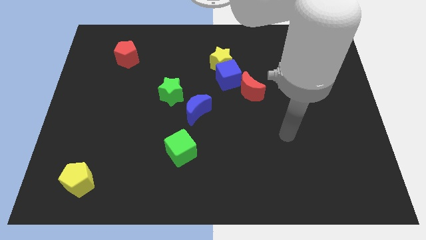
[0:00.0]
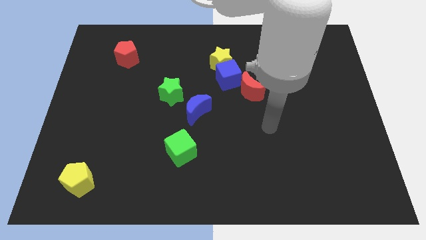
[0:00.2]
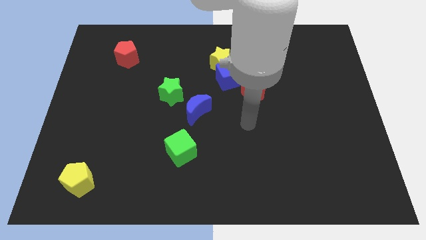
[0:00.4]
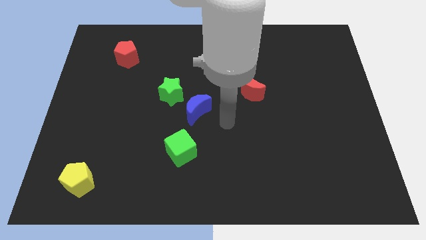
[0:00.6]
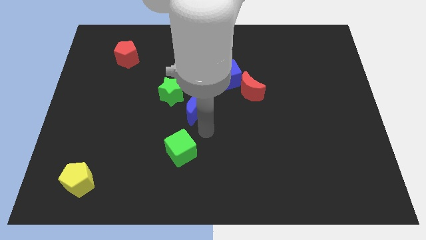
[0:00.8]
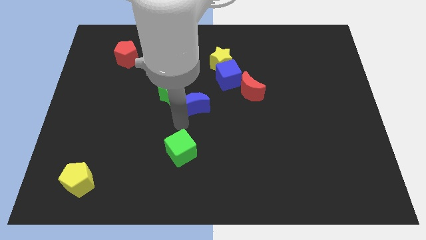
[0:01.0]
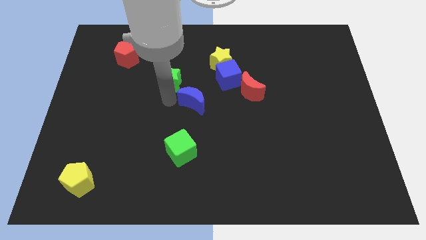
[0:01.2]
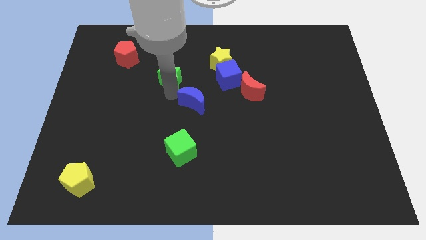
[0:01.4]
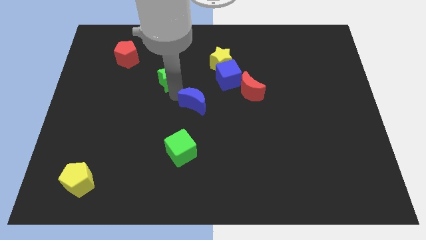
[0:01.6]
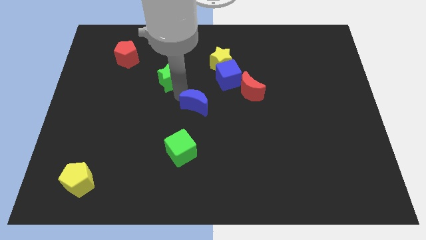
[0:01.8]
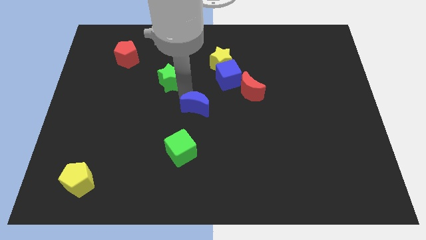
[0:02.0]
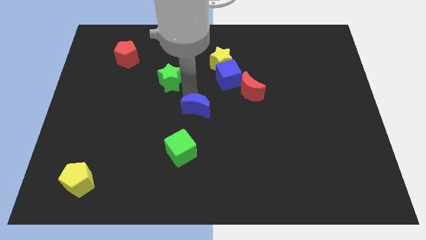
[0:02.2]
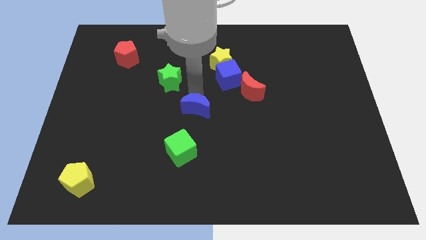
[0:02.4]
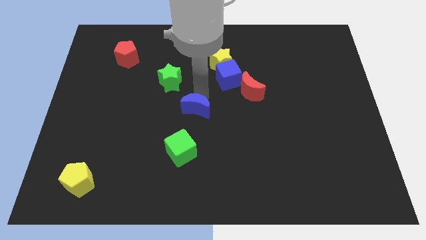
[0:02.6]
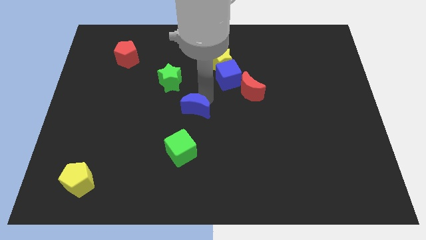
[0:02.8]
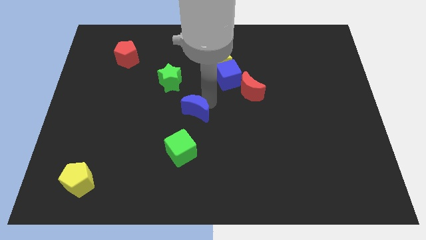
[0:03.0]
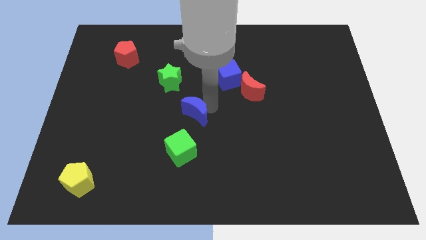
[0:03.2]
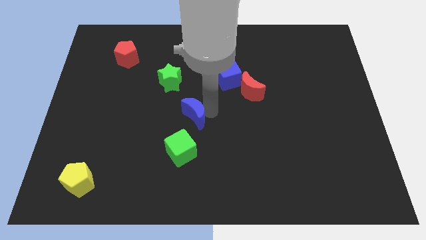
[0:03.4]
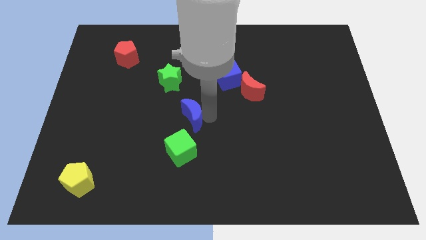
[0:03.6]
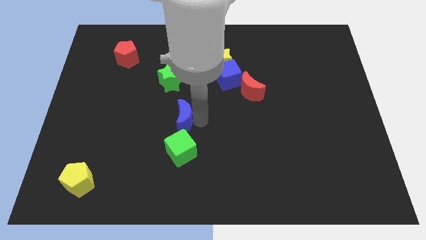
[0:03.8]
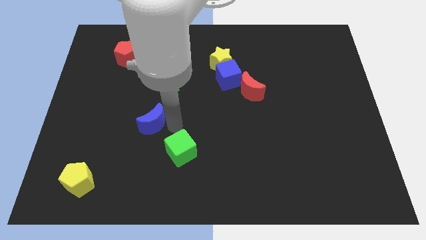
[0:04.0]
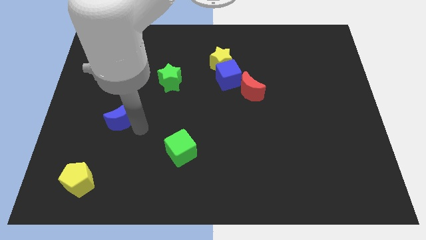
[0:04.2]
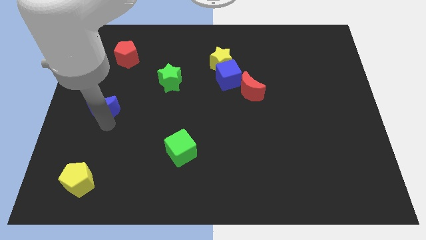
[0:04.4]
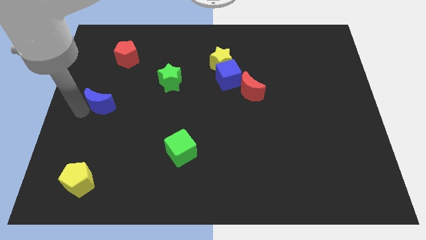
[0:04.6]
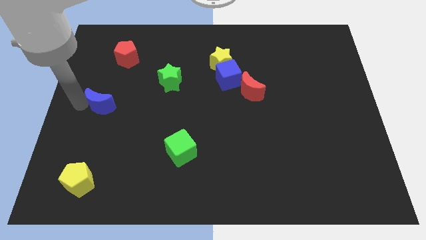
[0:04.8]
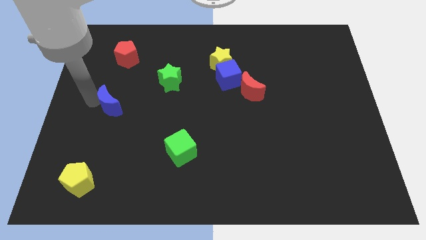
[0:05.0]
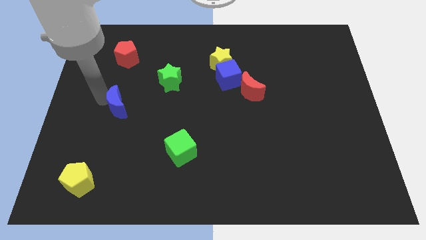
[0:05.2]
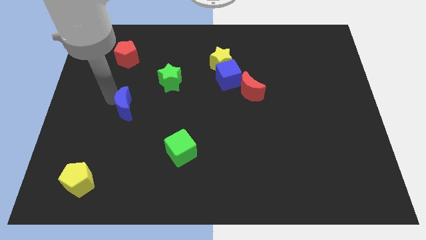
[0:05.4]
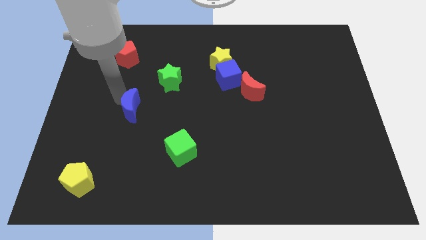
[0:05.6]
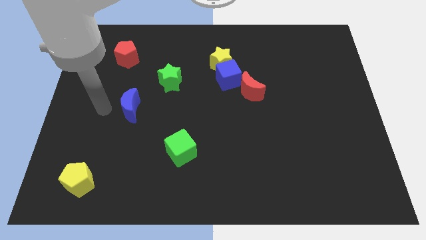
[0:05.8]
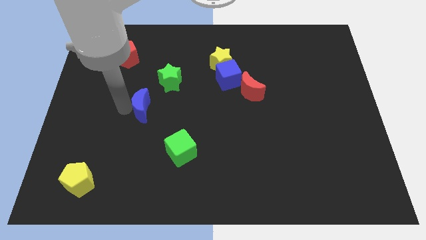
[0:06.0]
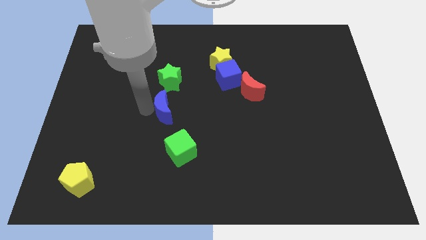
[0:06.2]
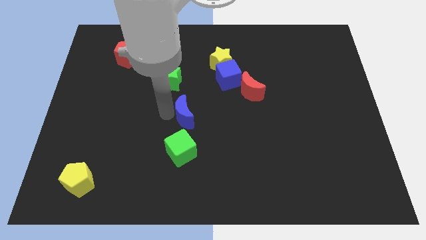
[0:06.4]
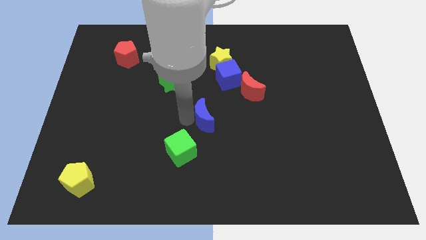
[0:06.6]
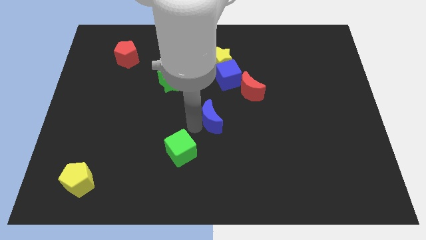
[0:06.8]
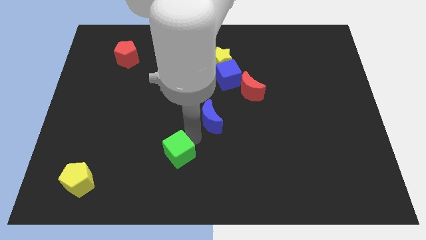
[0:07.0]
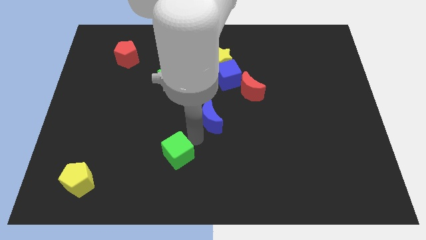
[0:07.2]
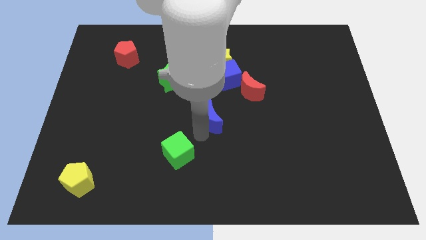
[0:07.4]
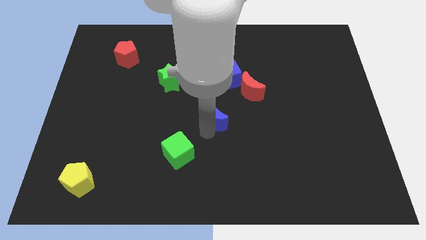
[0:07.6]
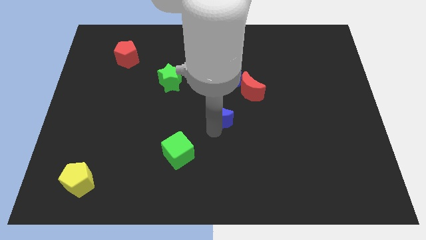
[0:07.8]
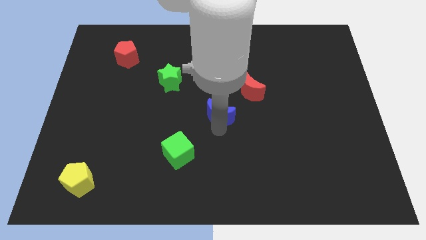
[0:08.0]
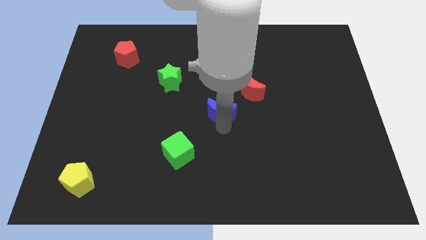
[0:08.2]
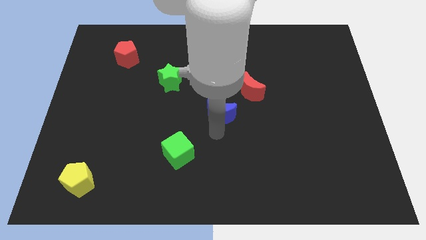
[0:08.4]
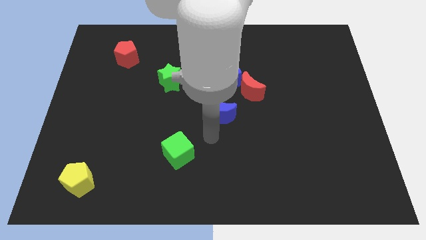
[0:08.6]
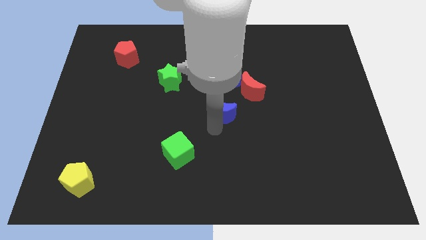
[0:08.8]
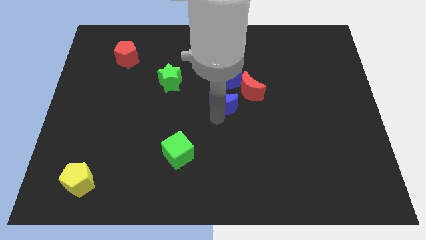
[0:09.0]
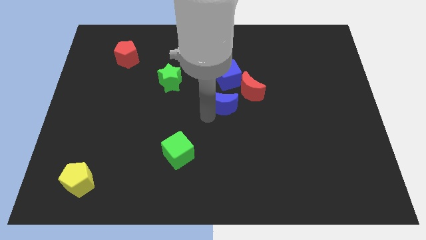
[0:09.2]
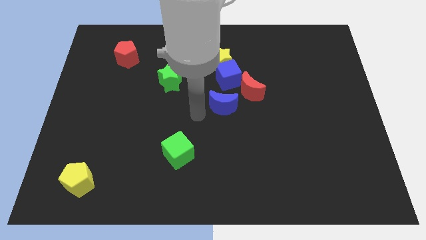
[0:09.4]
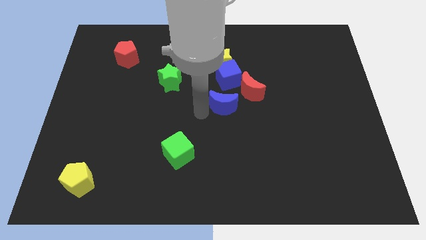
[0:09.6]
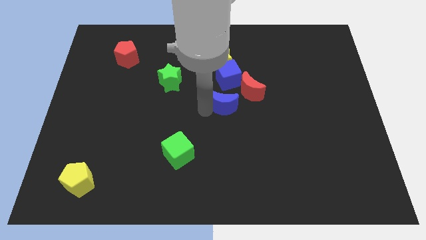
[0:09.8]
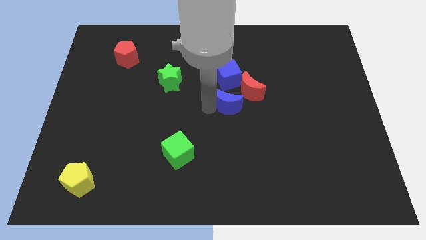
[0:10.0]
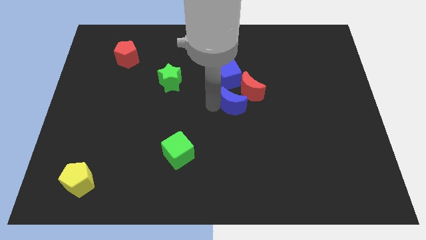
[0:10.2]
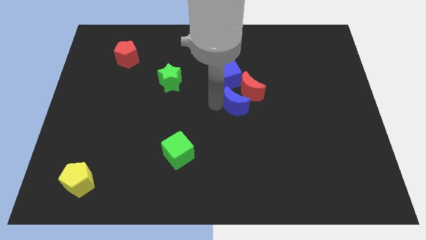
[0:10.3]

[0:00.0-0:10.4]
push the blue moon next to the red moon

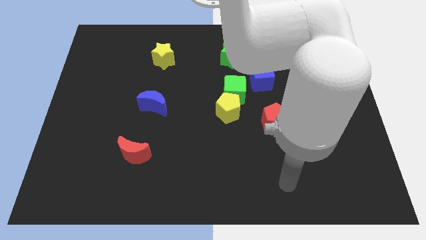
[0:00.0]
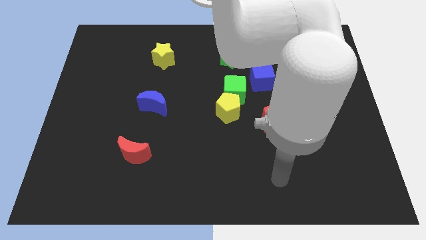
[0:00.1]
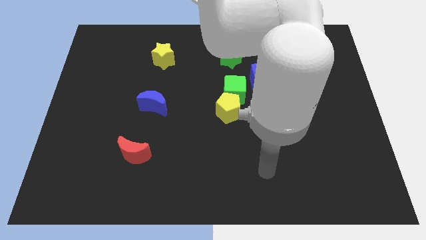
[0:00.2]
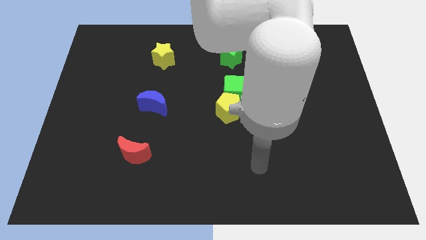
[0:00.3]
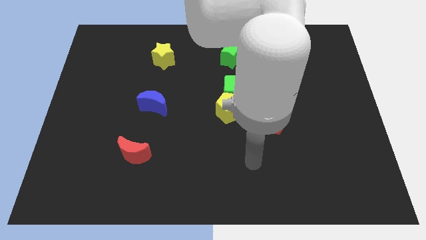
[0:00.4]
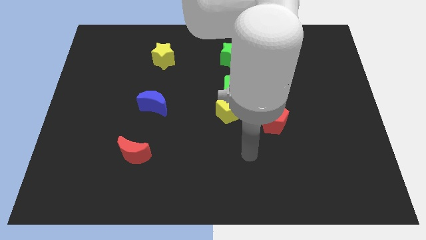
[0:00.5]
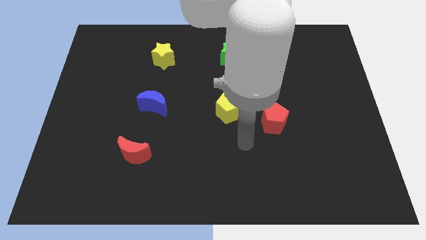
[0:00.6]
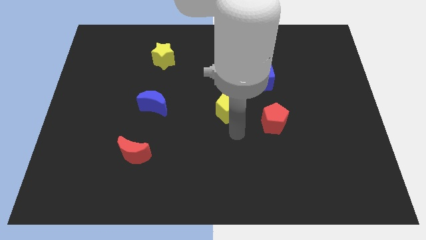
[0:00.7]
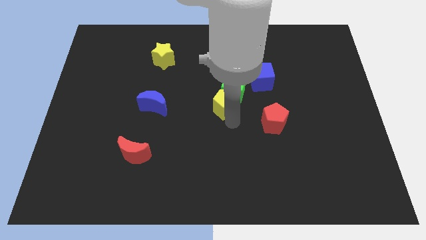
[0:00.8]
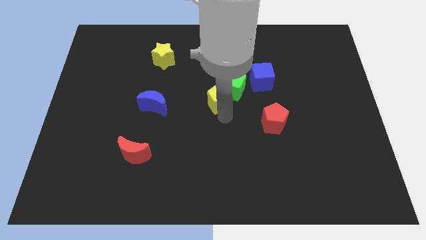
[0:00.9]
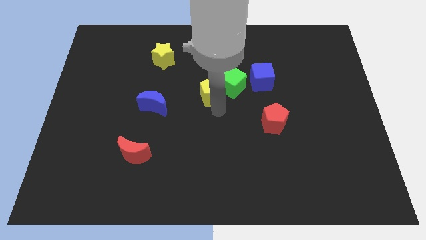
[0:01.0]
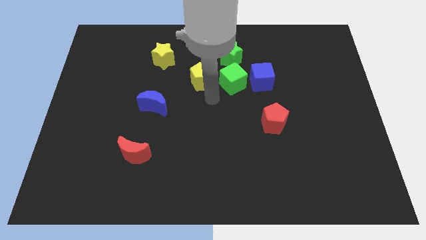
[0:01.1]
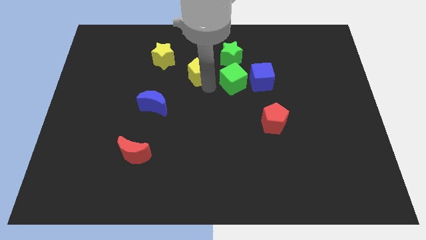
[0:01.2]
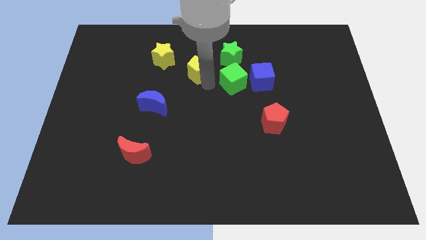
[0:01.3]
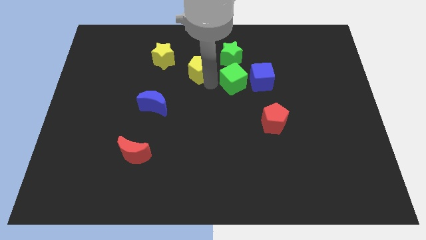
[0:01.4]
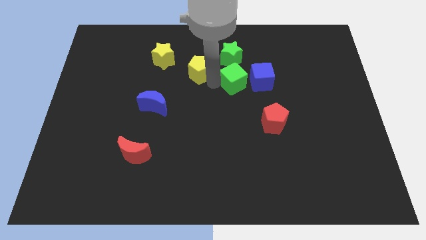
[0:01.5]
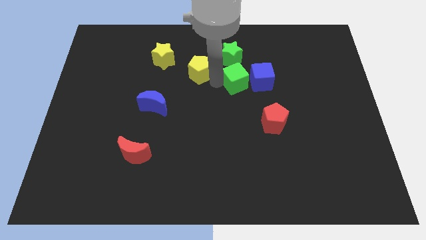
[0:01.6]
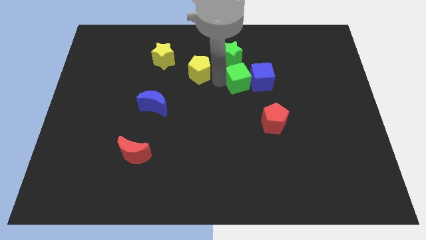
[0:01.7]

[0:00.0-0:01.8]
put the green cube close to the blue cube

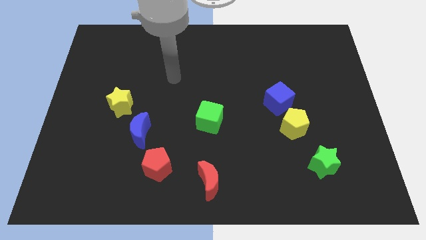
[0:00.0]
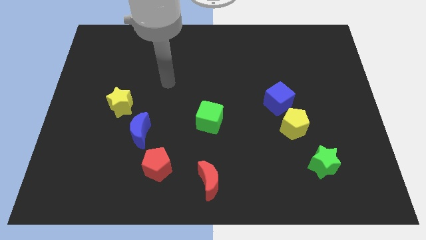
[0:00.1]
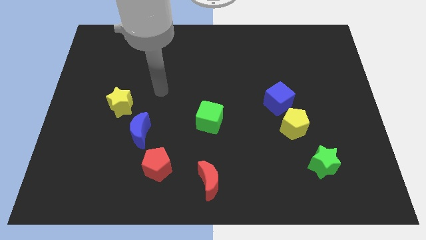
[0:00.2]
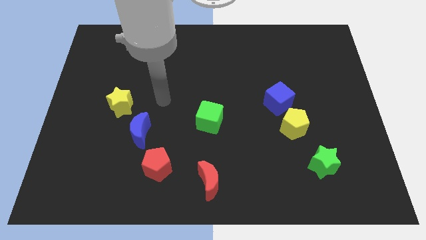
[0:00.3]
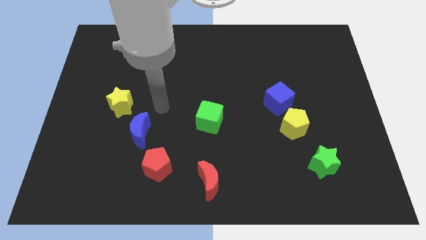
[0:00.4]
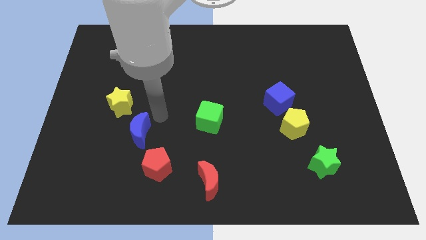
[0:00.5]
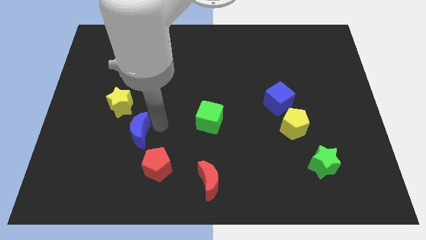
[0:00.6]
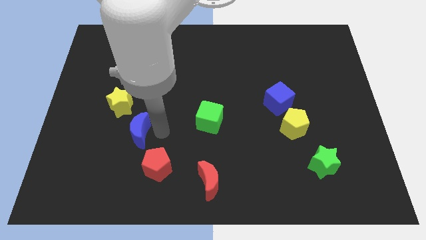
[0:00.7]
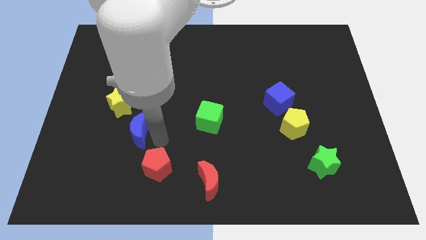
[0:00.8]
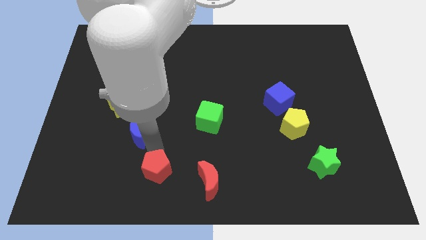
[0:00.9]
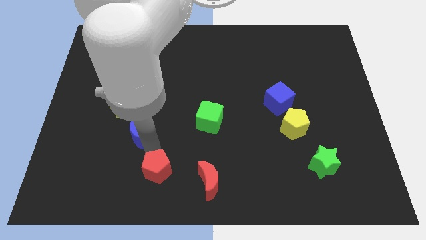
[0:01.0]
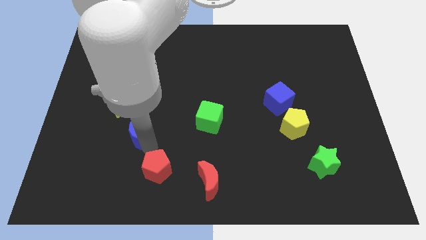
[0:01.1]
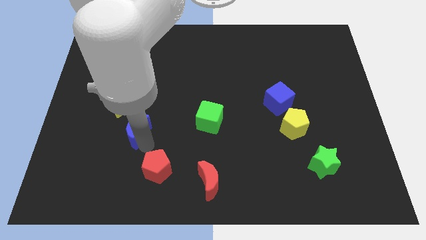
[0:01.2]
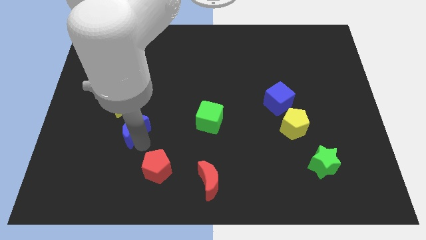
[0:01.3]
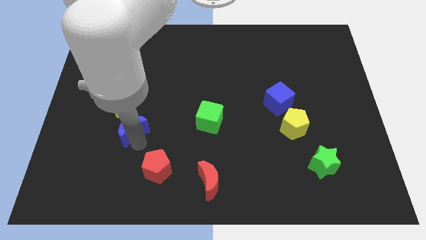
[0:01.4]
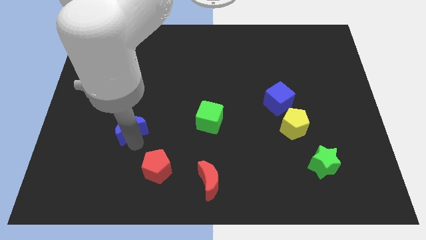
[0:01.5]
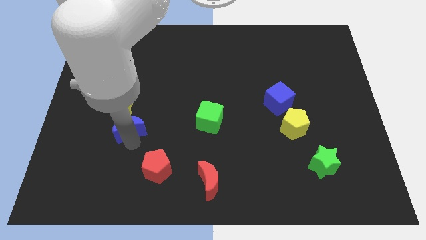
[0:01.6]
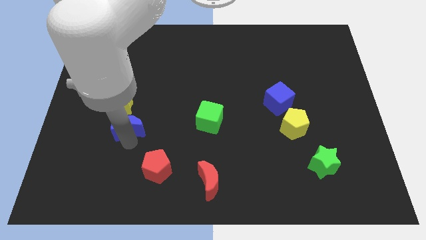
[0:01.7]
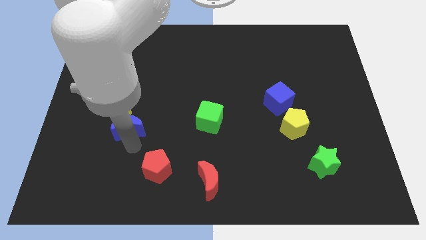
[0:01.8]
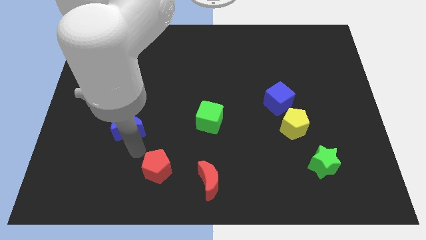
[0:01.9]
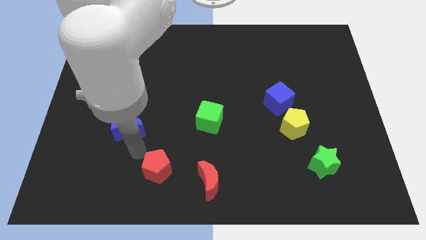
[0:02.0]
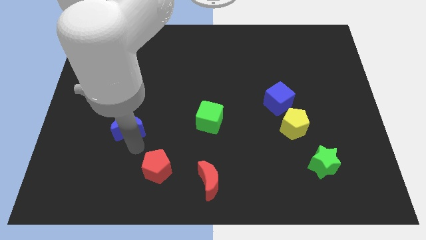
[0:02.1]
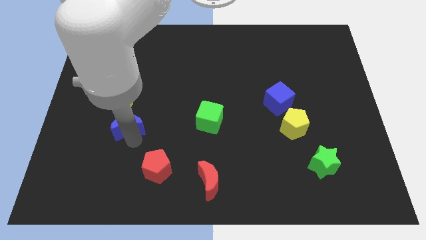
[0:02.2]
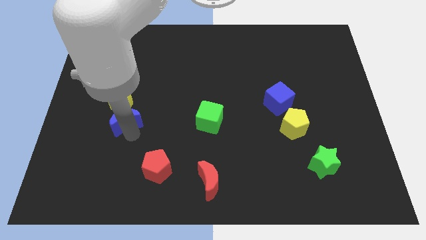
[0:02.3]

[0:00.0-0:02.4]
move the blue moon close to the yellow star
